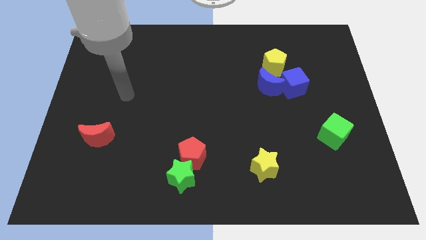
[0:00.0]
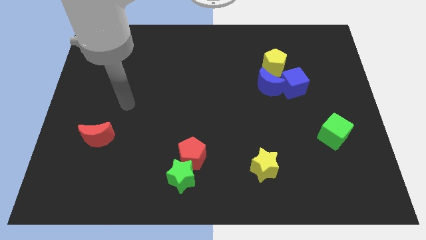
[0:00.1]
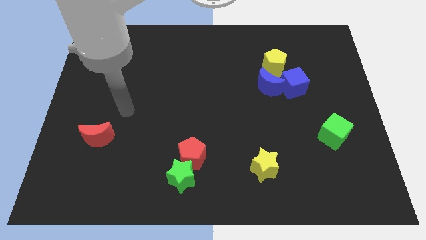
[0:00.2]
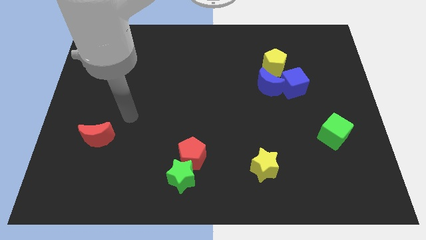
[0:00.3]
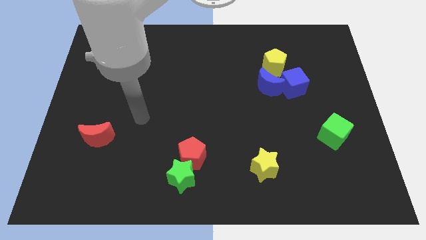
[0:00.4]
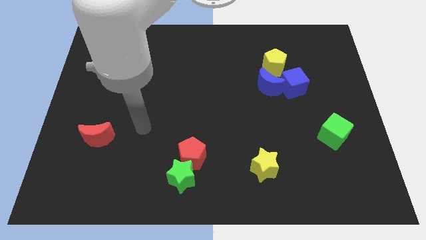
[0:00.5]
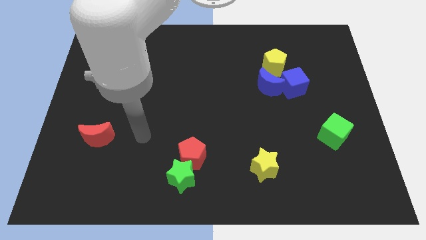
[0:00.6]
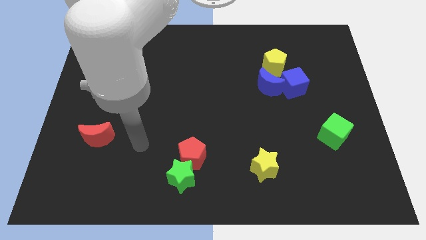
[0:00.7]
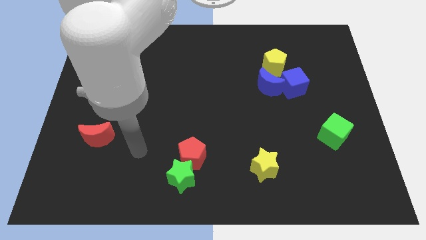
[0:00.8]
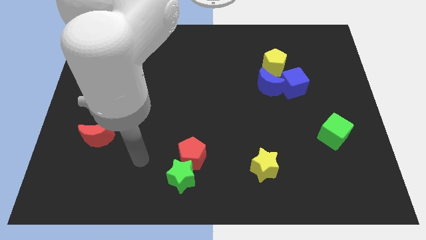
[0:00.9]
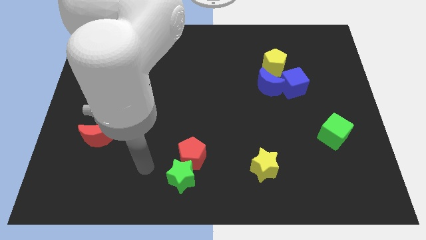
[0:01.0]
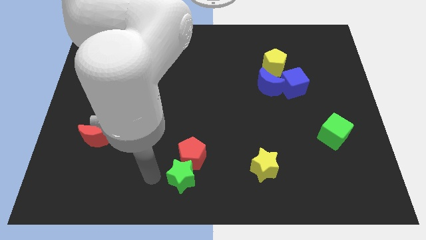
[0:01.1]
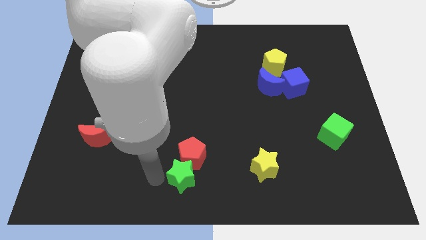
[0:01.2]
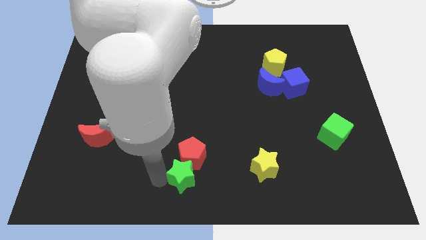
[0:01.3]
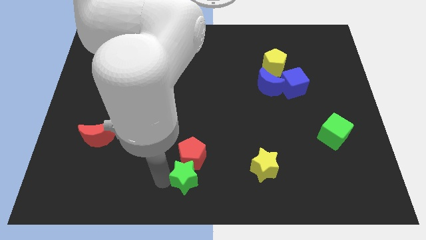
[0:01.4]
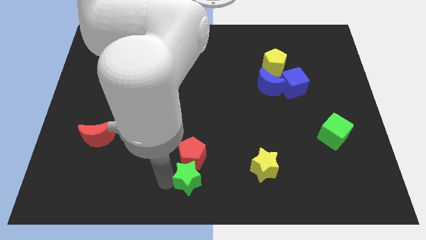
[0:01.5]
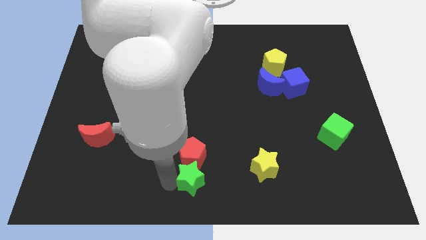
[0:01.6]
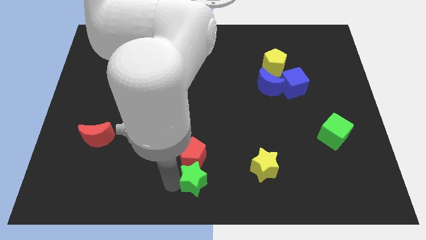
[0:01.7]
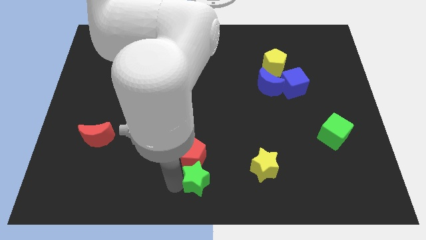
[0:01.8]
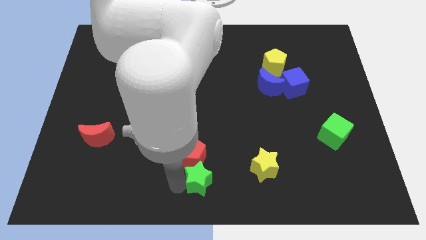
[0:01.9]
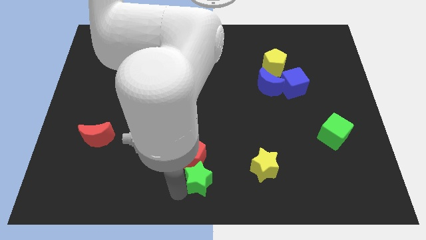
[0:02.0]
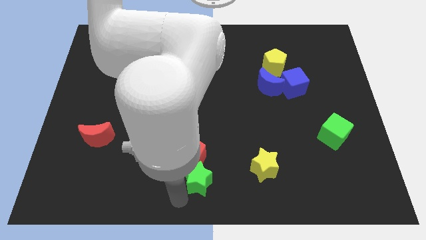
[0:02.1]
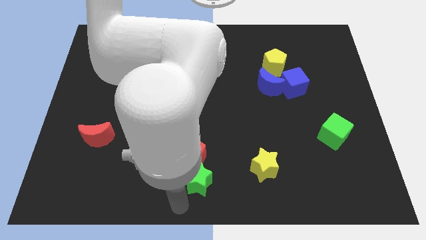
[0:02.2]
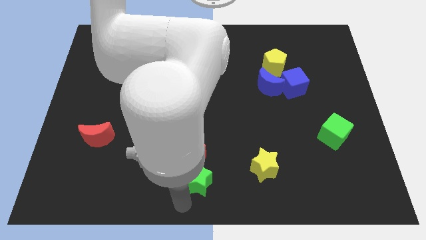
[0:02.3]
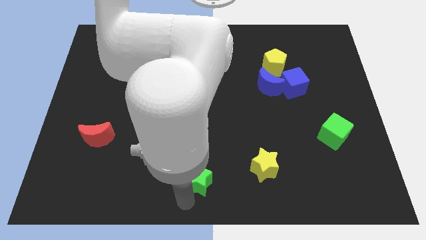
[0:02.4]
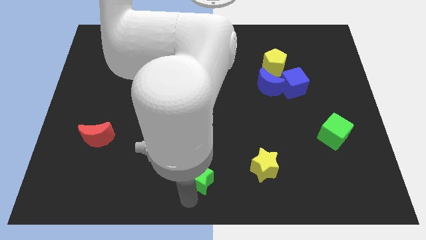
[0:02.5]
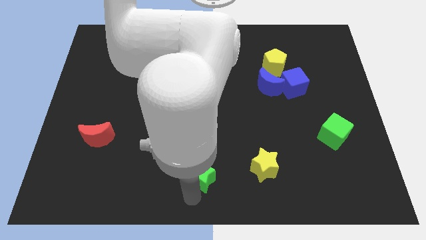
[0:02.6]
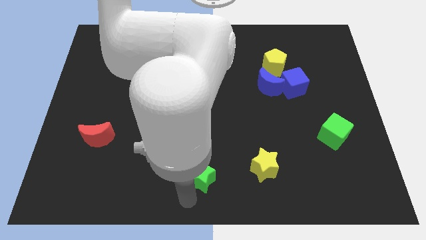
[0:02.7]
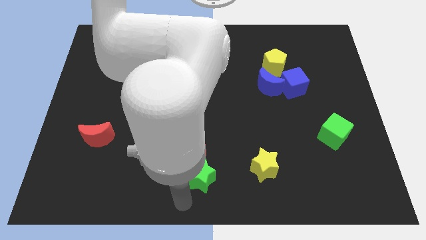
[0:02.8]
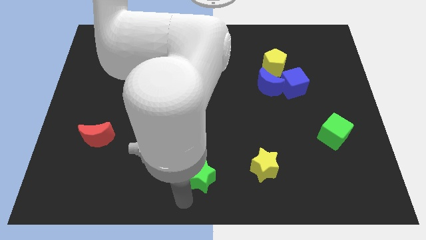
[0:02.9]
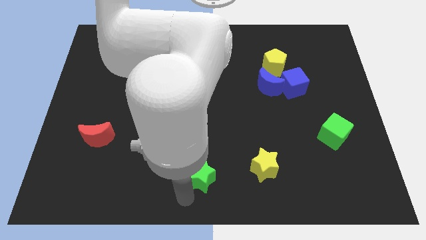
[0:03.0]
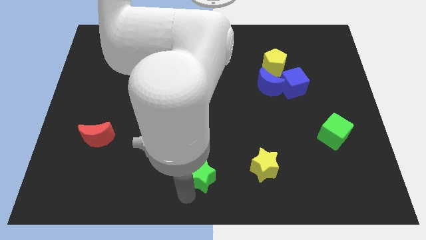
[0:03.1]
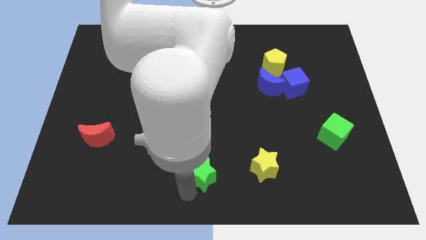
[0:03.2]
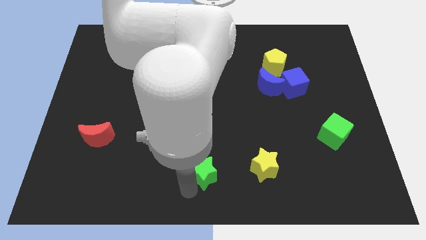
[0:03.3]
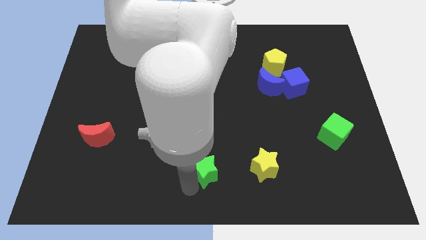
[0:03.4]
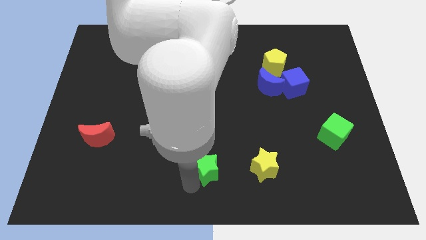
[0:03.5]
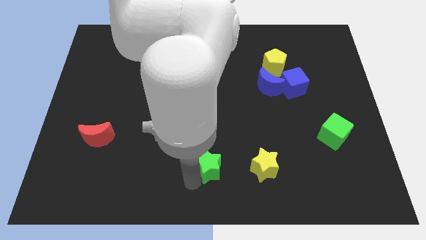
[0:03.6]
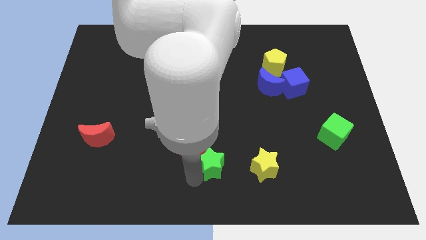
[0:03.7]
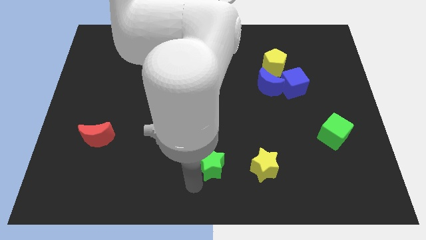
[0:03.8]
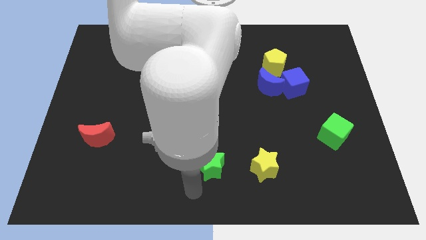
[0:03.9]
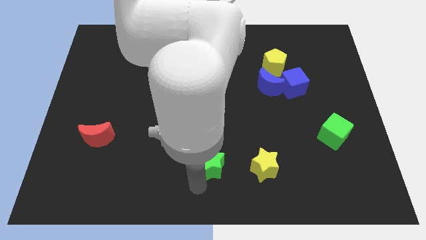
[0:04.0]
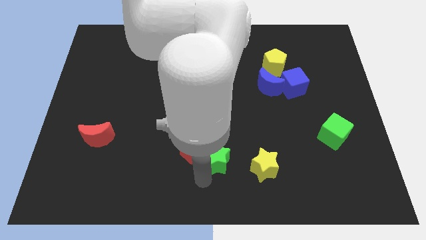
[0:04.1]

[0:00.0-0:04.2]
move the green star a little bit upwards and right diagonally

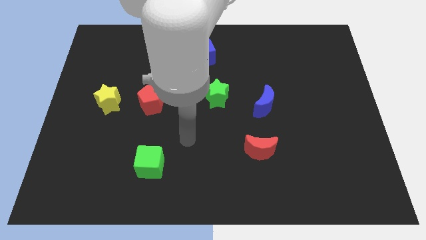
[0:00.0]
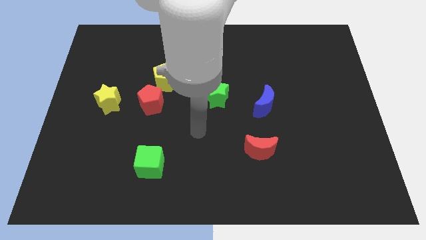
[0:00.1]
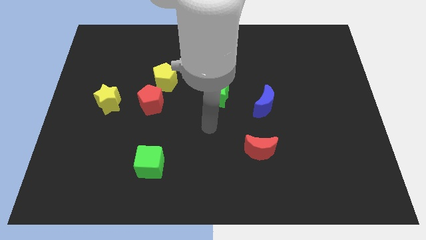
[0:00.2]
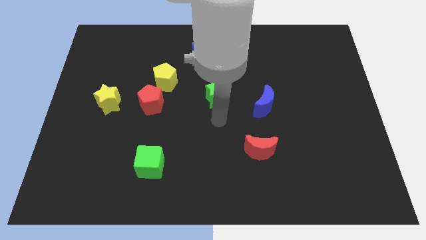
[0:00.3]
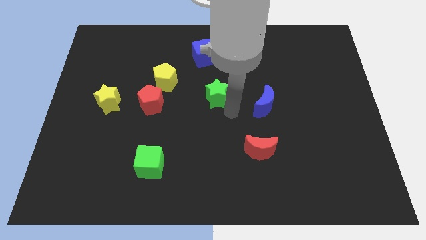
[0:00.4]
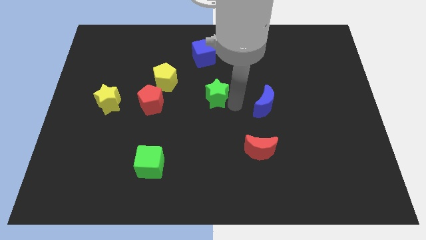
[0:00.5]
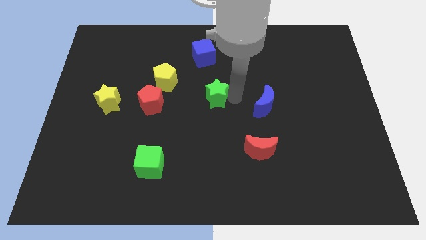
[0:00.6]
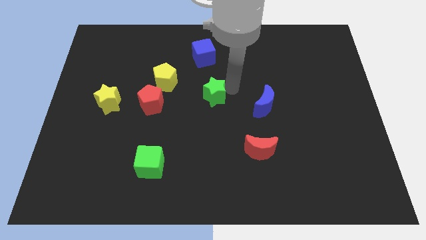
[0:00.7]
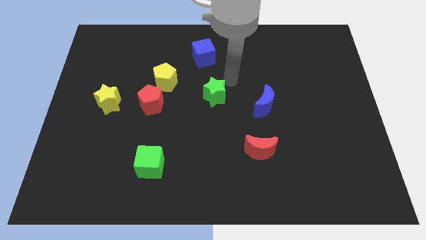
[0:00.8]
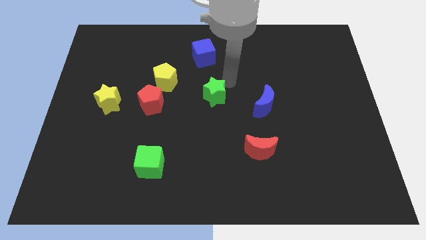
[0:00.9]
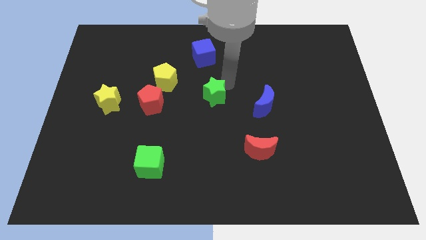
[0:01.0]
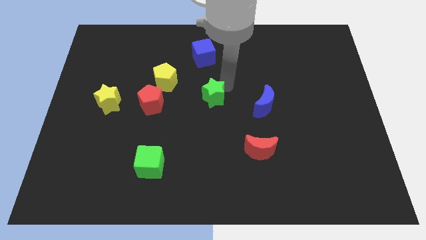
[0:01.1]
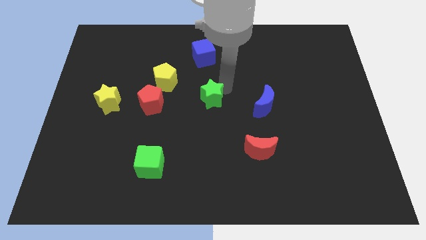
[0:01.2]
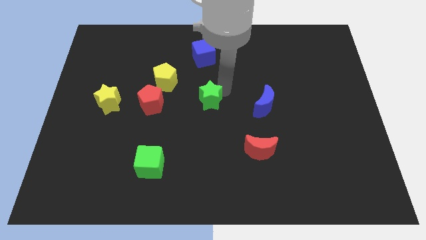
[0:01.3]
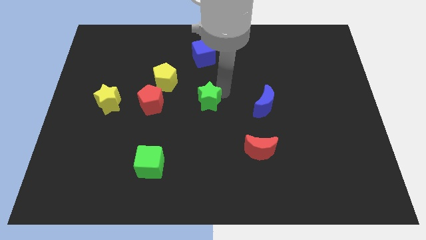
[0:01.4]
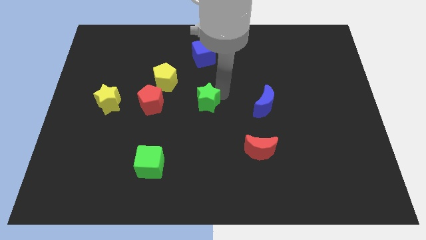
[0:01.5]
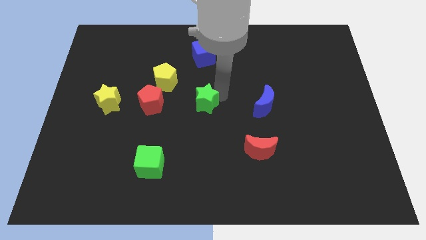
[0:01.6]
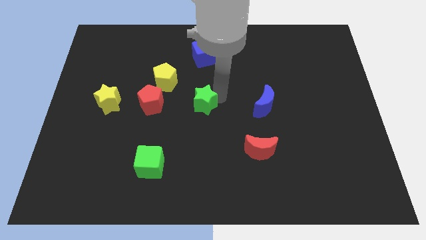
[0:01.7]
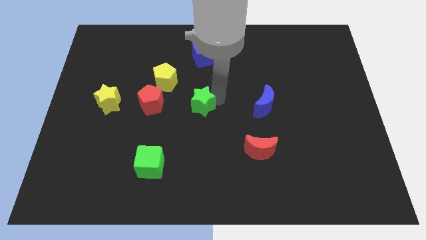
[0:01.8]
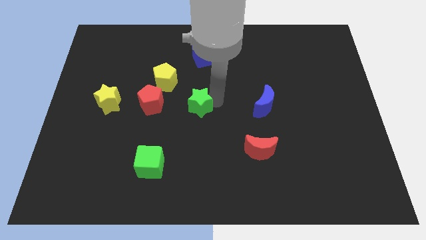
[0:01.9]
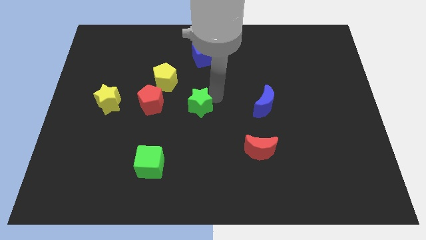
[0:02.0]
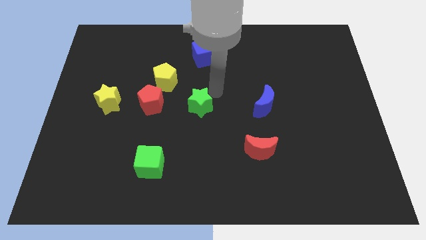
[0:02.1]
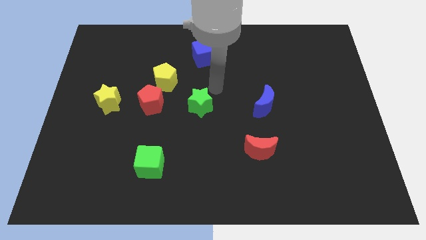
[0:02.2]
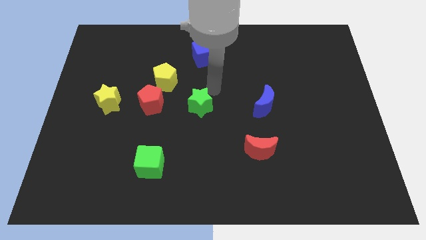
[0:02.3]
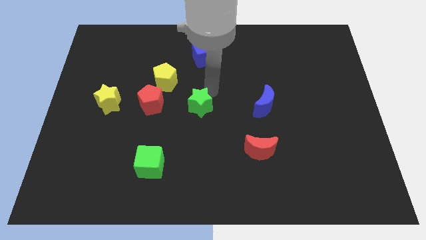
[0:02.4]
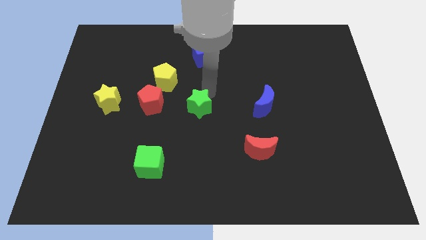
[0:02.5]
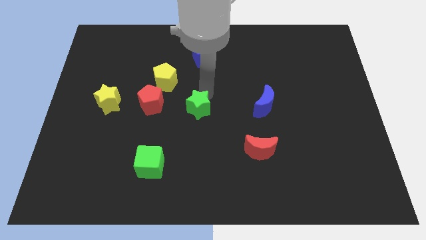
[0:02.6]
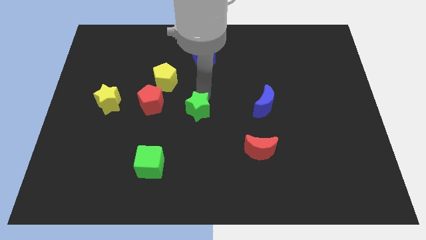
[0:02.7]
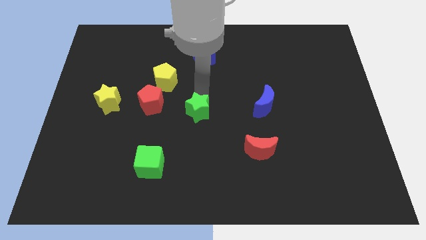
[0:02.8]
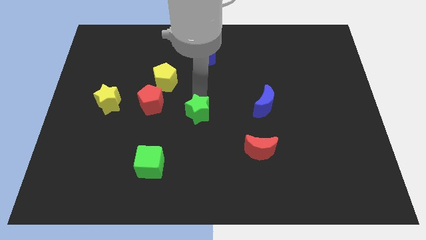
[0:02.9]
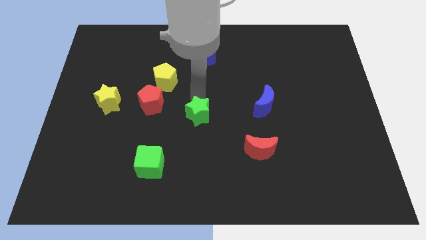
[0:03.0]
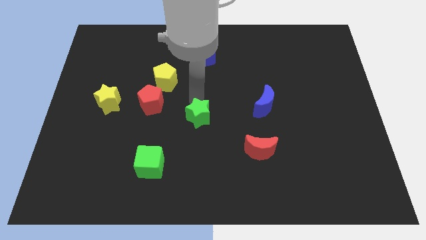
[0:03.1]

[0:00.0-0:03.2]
slide the green star a bit diagonally down and to the left

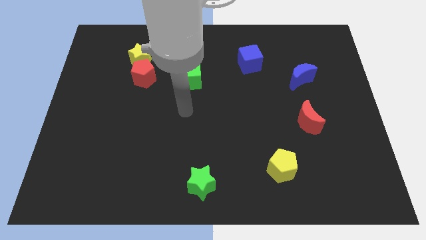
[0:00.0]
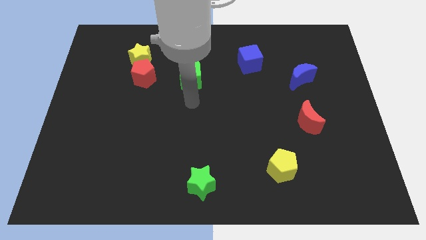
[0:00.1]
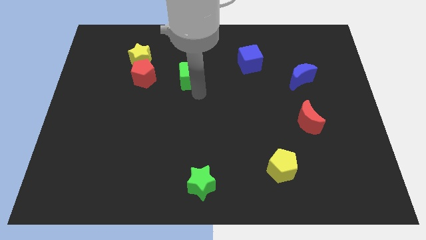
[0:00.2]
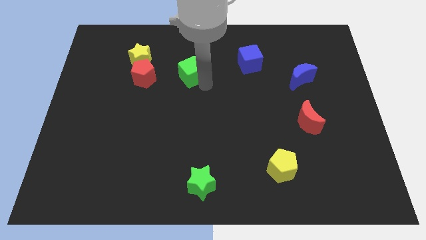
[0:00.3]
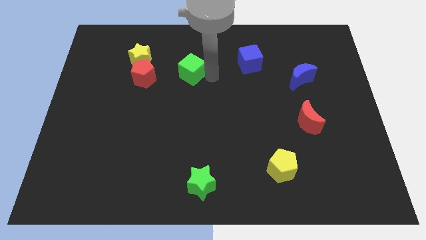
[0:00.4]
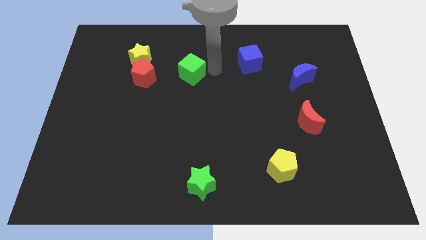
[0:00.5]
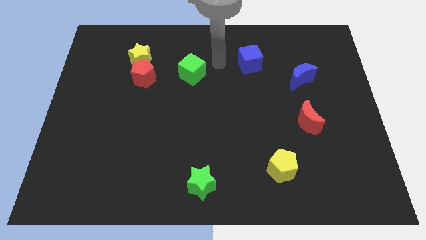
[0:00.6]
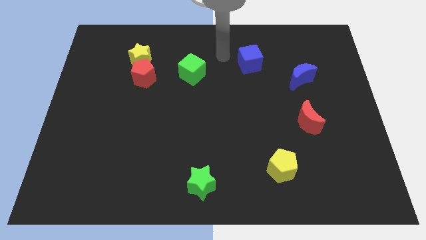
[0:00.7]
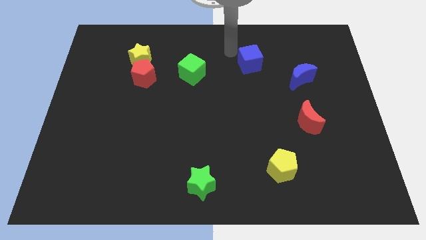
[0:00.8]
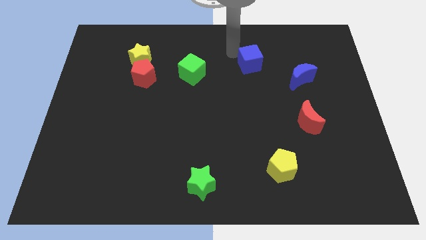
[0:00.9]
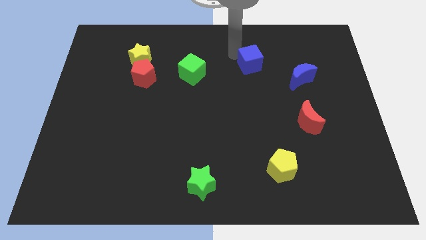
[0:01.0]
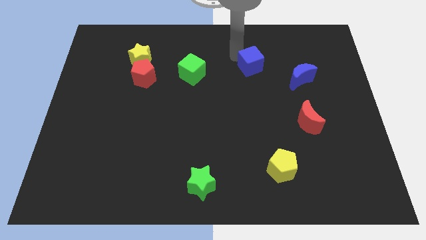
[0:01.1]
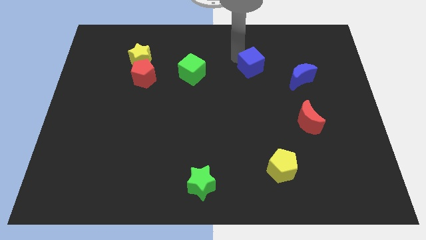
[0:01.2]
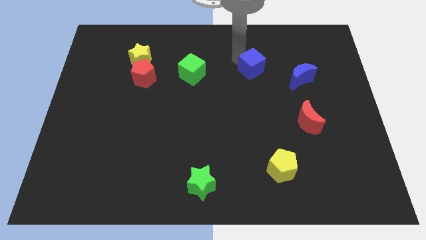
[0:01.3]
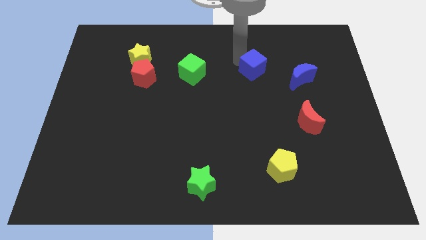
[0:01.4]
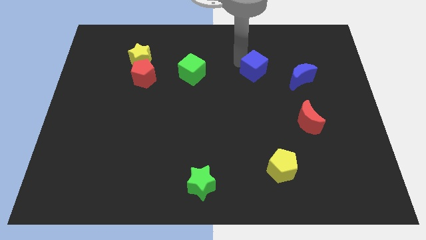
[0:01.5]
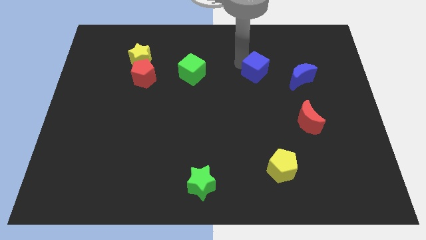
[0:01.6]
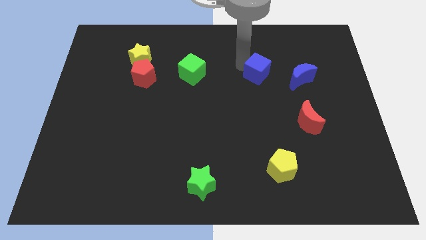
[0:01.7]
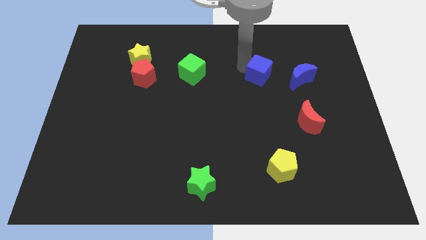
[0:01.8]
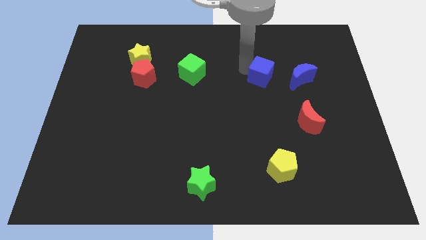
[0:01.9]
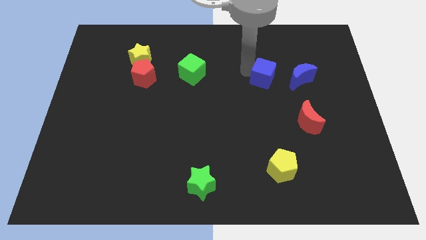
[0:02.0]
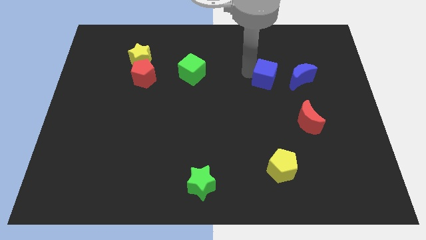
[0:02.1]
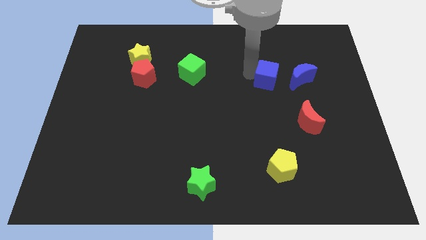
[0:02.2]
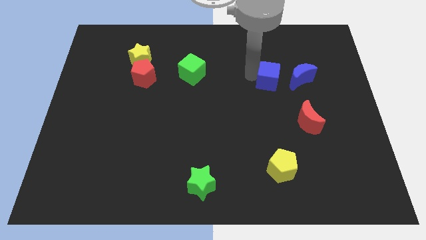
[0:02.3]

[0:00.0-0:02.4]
slide the blue cube downwards and to the right diagonally a little bit
